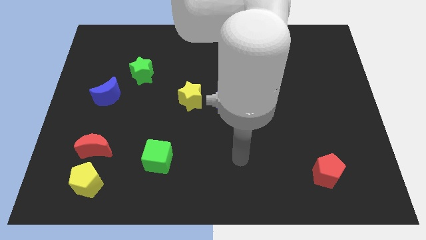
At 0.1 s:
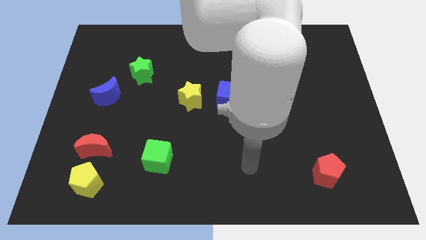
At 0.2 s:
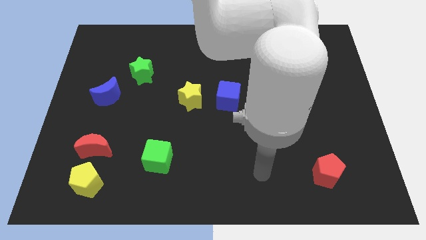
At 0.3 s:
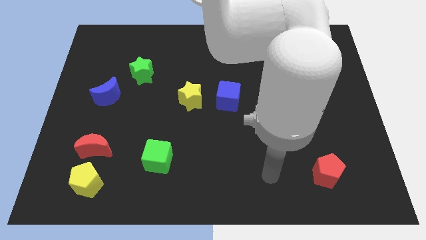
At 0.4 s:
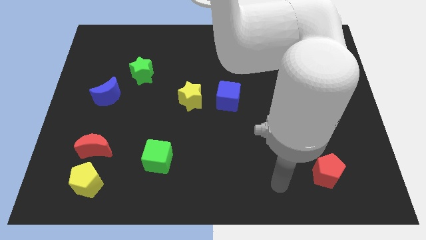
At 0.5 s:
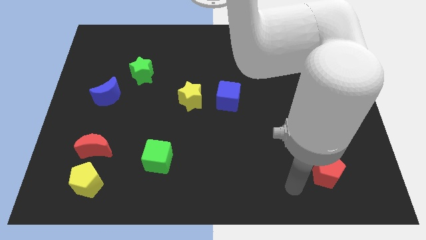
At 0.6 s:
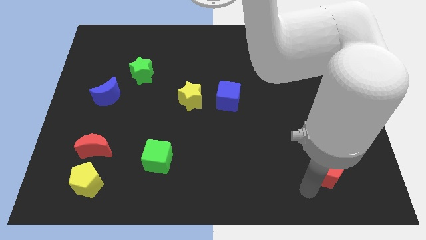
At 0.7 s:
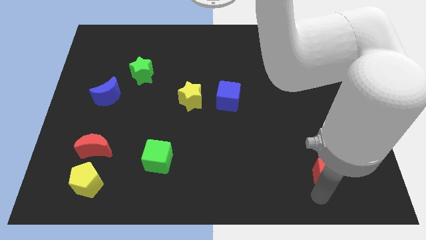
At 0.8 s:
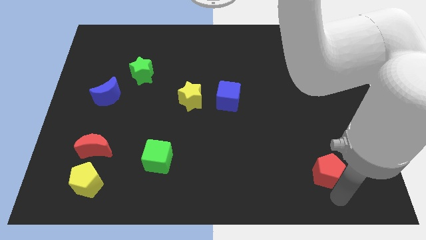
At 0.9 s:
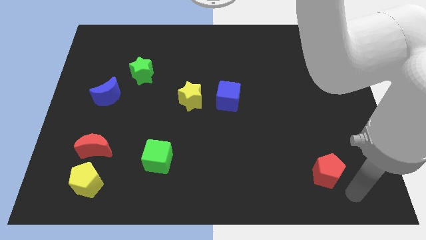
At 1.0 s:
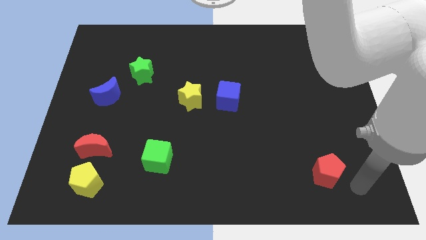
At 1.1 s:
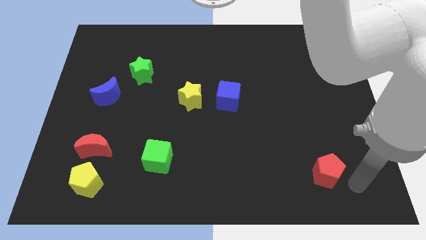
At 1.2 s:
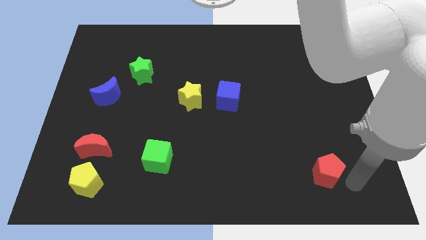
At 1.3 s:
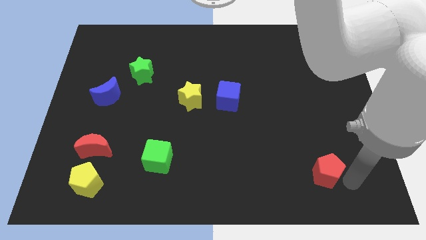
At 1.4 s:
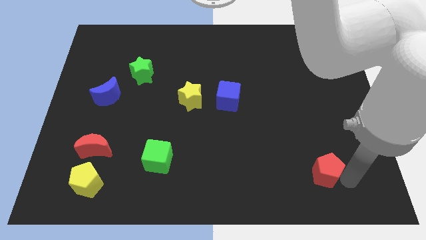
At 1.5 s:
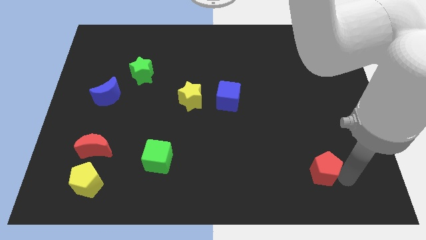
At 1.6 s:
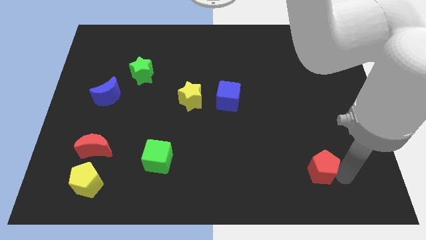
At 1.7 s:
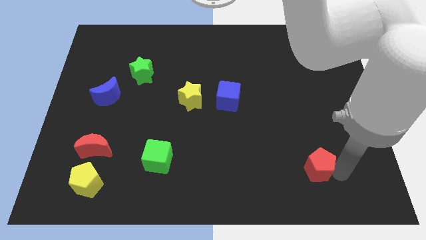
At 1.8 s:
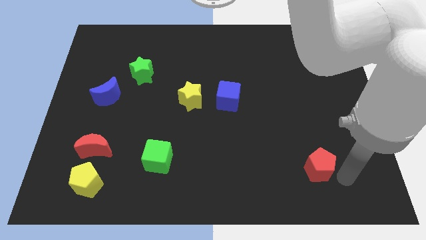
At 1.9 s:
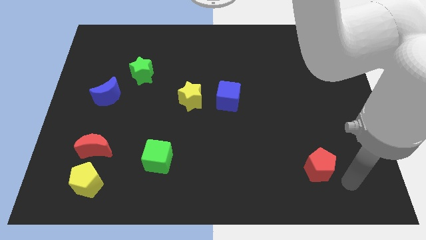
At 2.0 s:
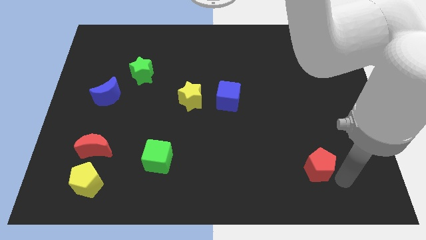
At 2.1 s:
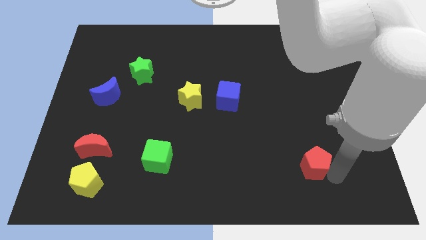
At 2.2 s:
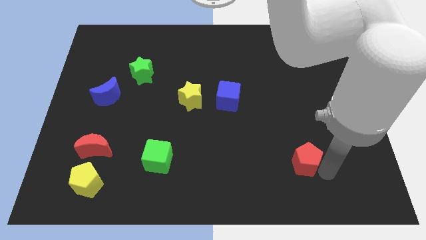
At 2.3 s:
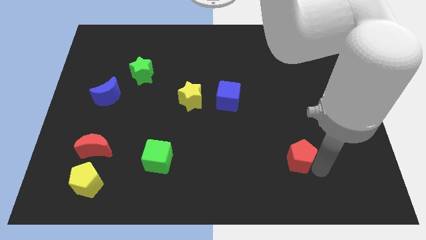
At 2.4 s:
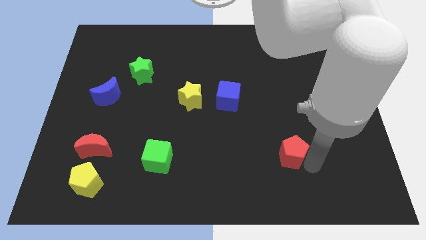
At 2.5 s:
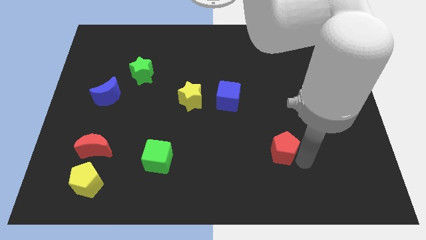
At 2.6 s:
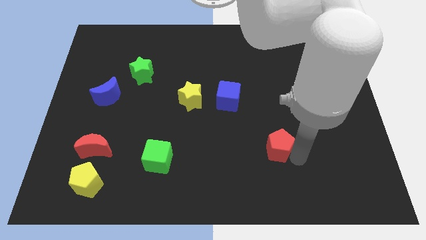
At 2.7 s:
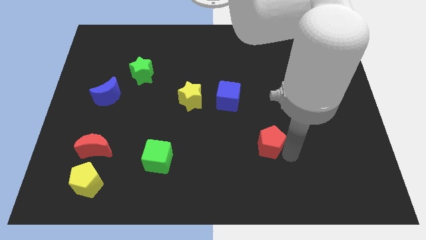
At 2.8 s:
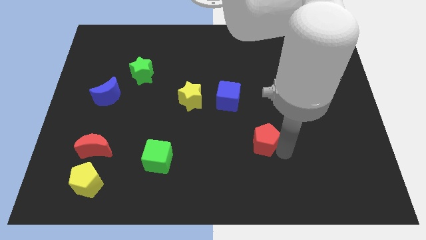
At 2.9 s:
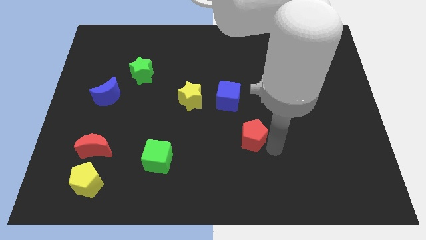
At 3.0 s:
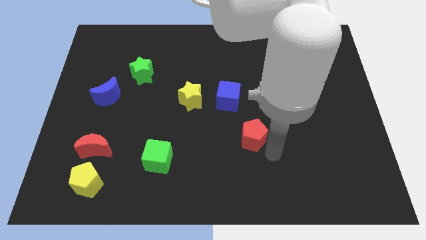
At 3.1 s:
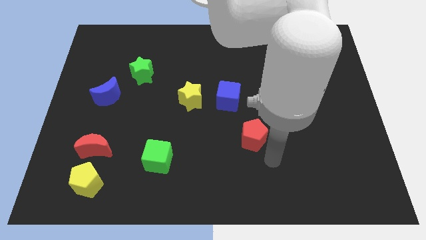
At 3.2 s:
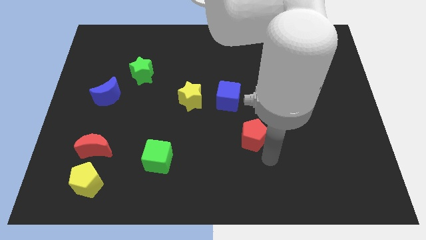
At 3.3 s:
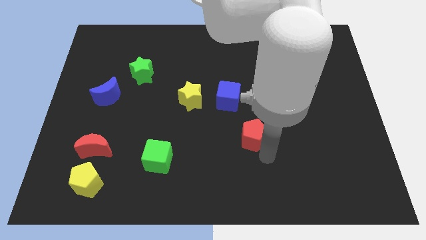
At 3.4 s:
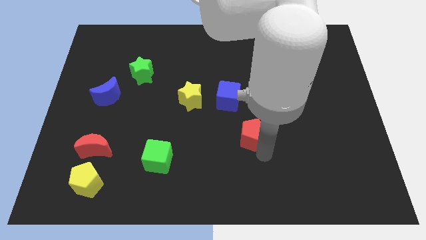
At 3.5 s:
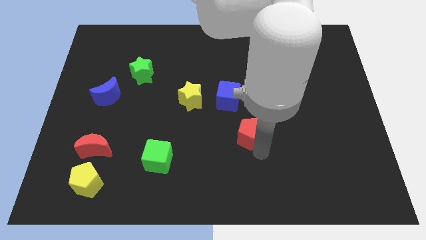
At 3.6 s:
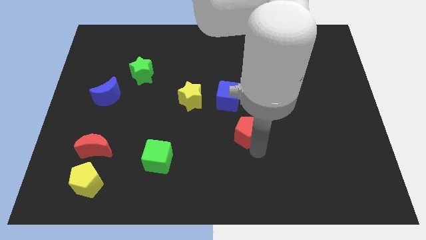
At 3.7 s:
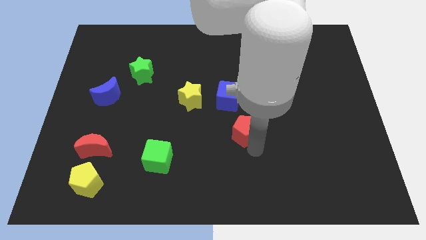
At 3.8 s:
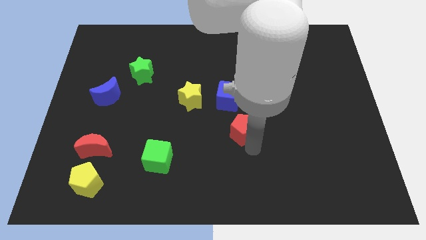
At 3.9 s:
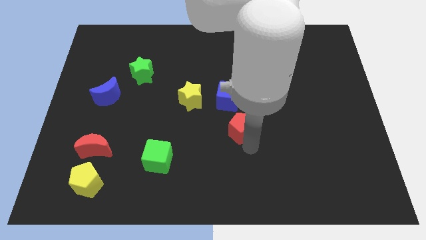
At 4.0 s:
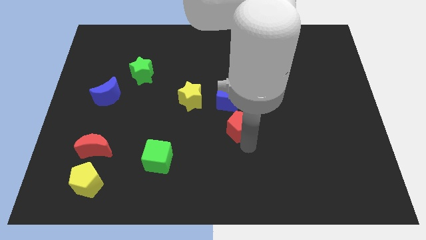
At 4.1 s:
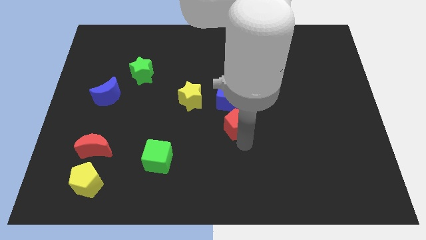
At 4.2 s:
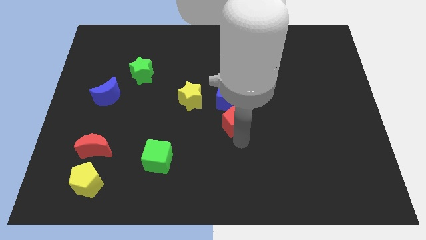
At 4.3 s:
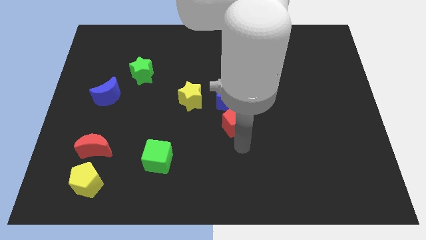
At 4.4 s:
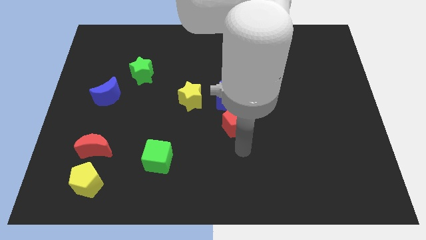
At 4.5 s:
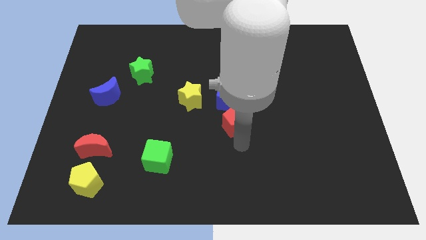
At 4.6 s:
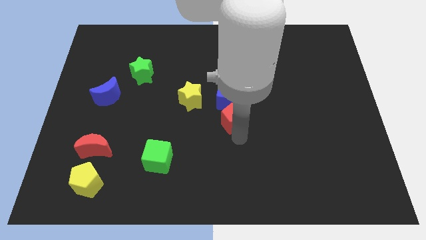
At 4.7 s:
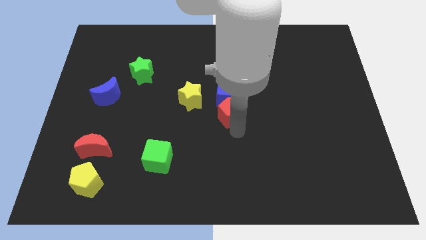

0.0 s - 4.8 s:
move the red pentagon to the blue cube

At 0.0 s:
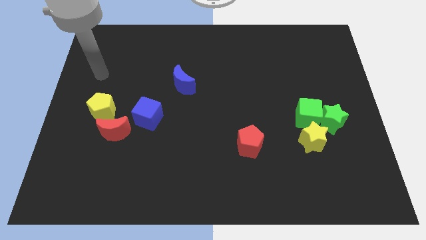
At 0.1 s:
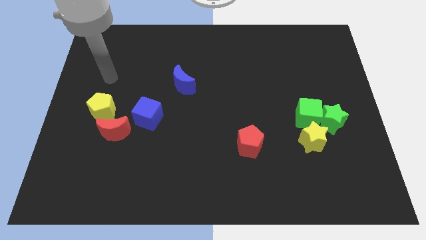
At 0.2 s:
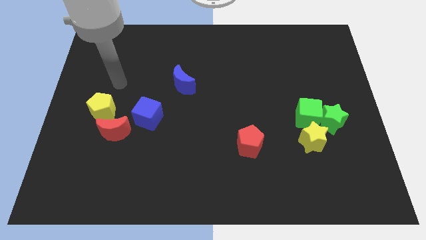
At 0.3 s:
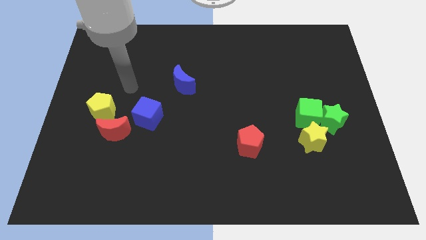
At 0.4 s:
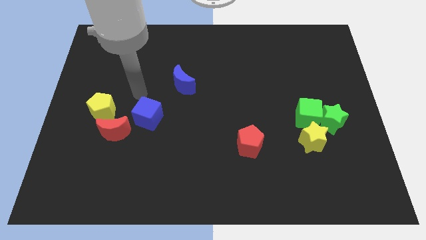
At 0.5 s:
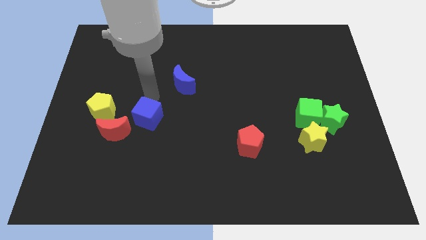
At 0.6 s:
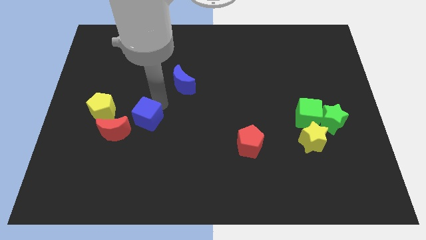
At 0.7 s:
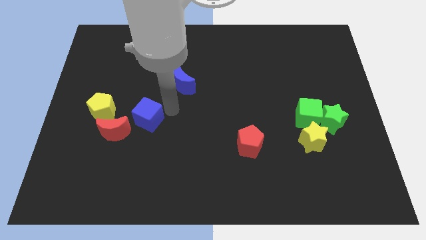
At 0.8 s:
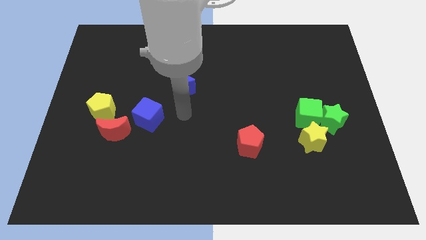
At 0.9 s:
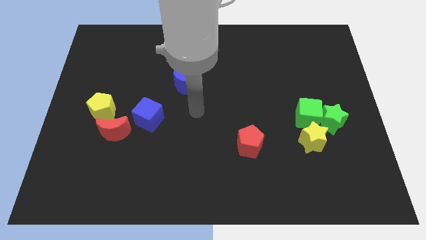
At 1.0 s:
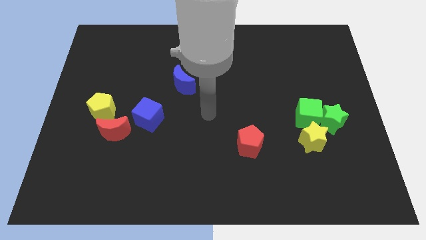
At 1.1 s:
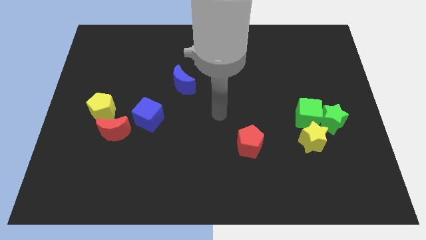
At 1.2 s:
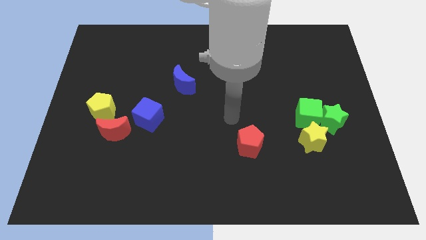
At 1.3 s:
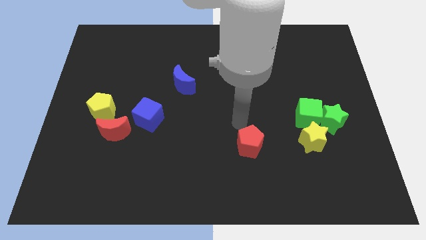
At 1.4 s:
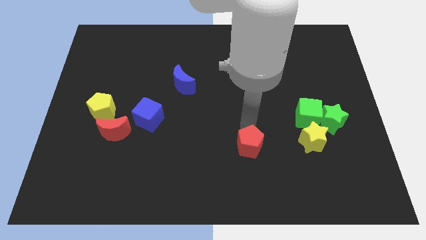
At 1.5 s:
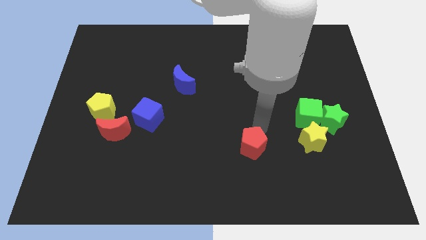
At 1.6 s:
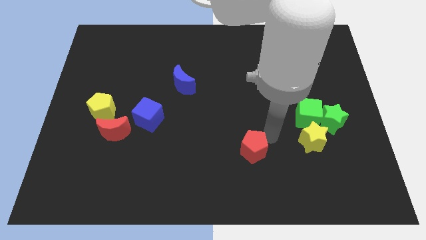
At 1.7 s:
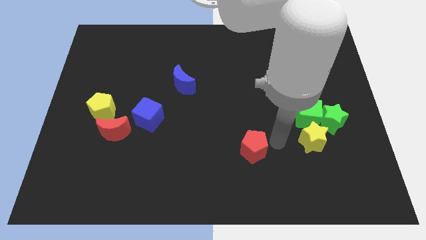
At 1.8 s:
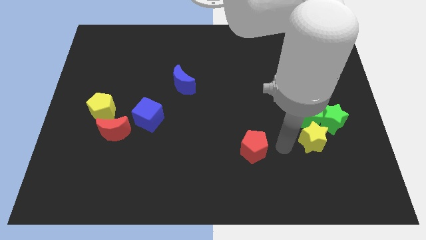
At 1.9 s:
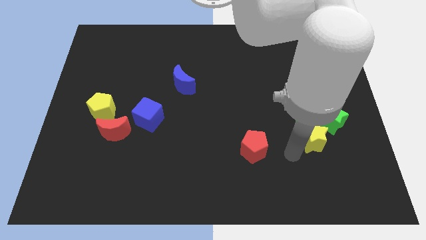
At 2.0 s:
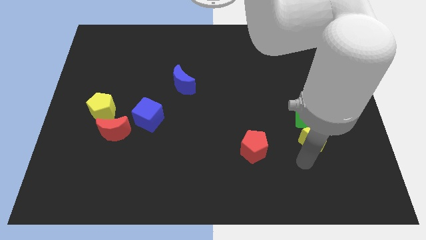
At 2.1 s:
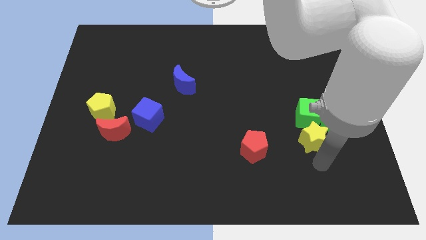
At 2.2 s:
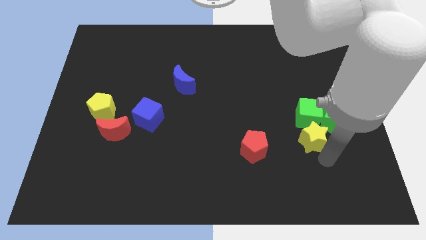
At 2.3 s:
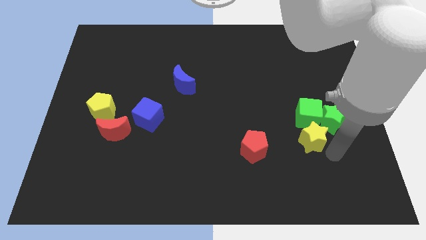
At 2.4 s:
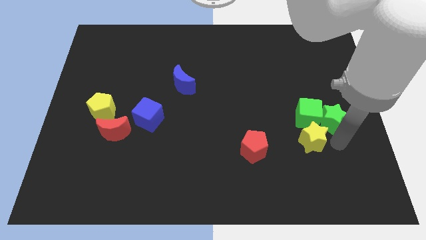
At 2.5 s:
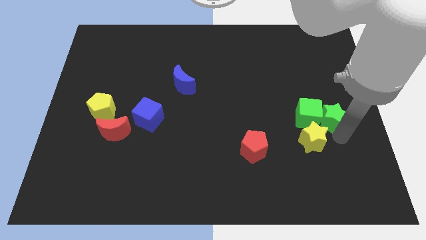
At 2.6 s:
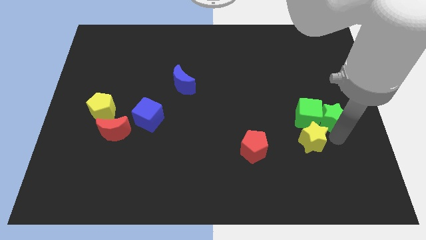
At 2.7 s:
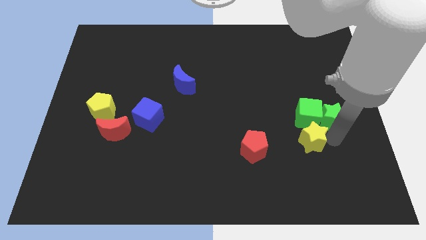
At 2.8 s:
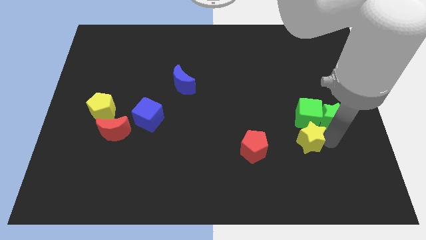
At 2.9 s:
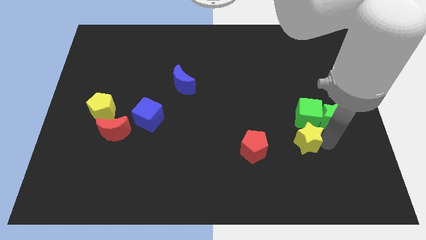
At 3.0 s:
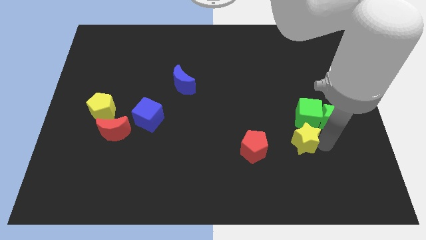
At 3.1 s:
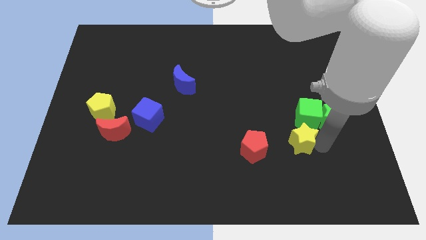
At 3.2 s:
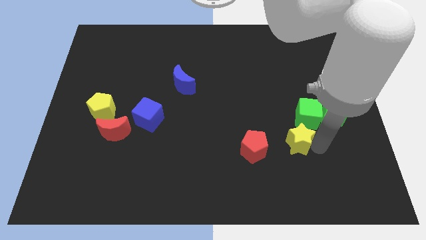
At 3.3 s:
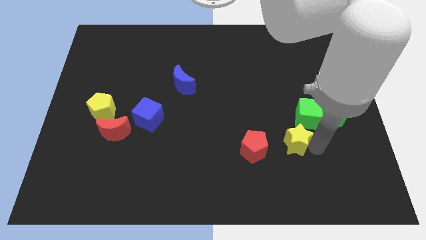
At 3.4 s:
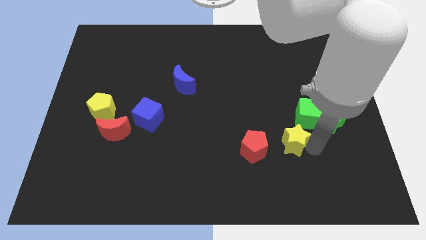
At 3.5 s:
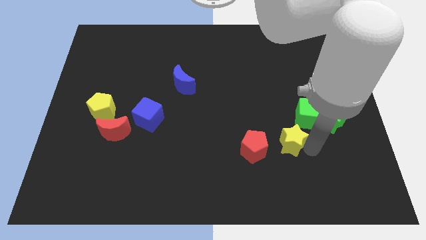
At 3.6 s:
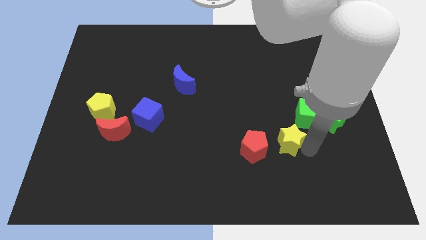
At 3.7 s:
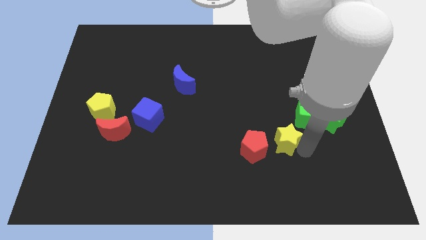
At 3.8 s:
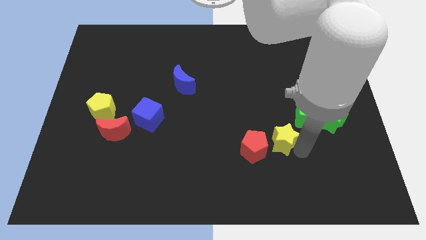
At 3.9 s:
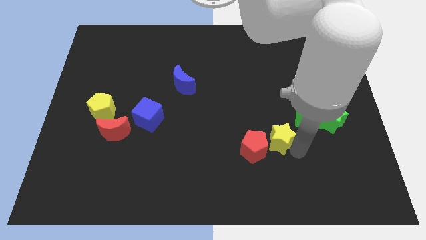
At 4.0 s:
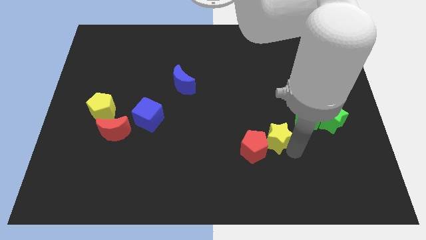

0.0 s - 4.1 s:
push the yellow star next to the red pentagon
